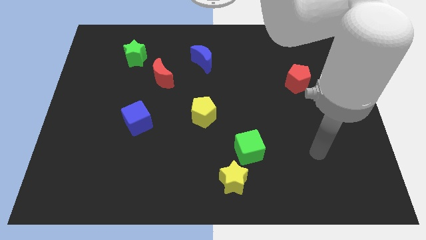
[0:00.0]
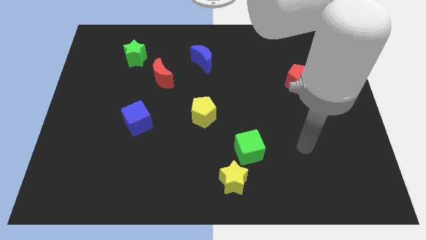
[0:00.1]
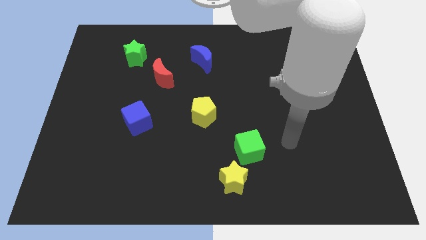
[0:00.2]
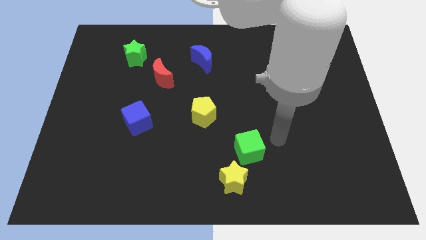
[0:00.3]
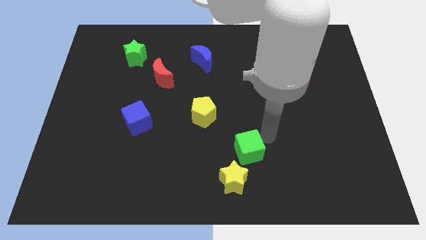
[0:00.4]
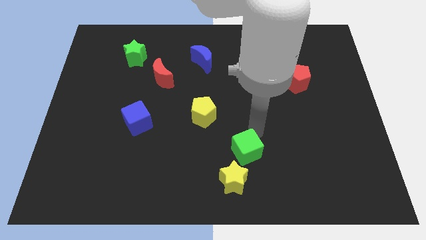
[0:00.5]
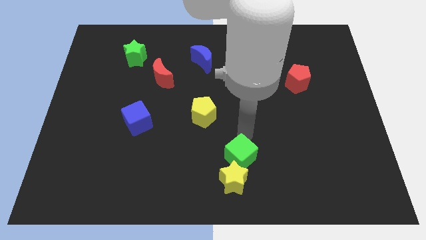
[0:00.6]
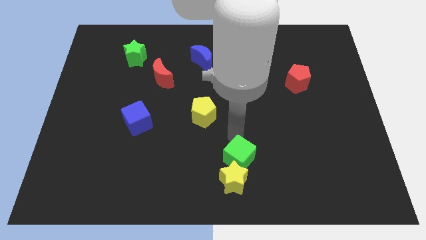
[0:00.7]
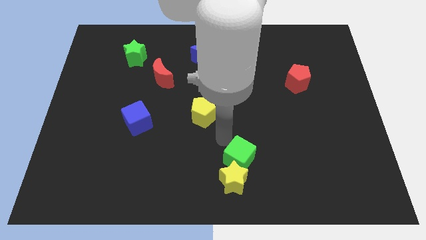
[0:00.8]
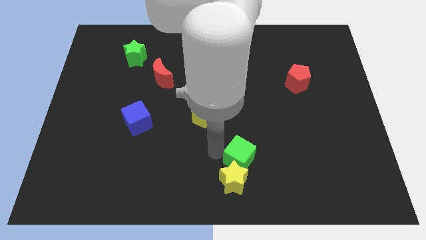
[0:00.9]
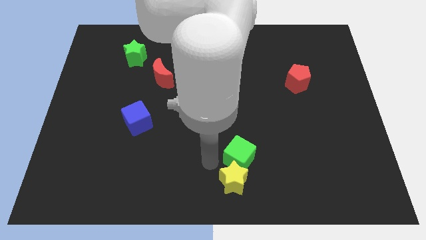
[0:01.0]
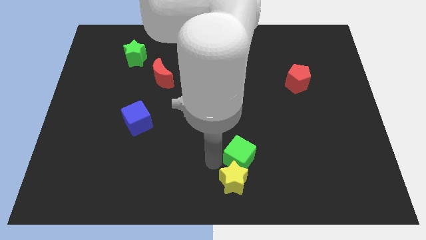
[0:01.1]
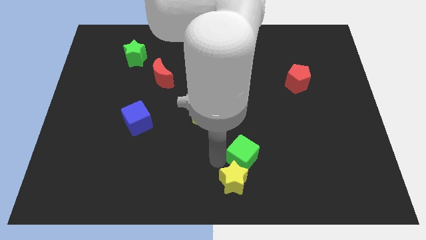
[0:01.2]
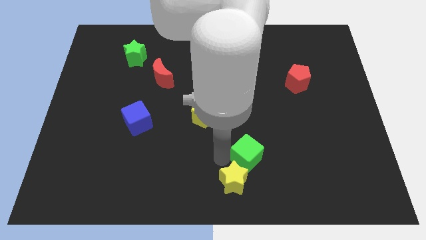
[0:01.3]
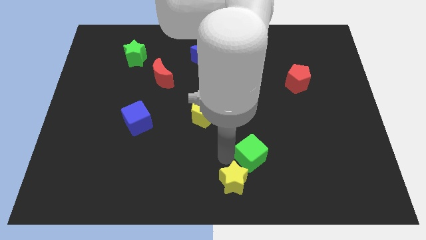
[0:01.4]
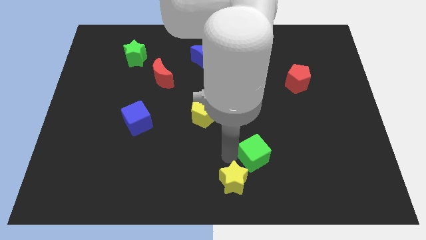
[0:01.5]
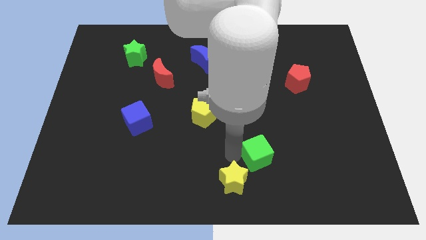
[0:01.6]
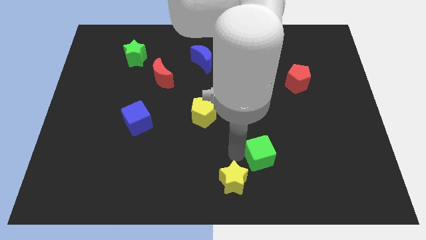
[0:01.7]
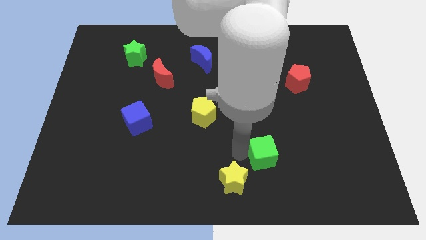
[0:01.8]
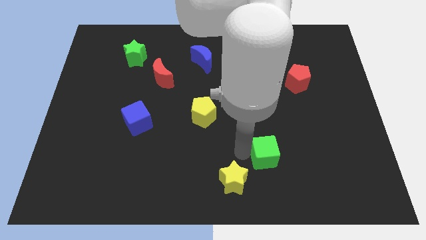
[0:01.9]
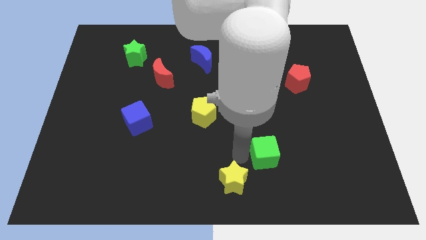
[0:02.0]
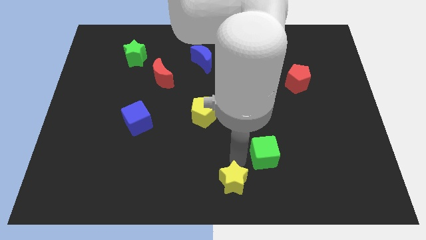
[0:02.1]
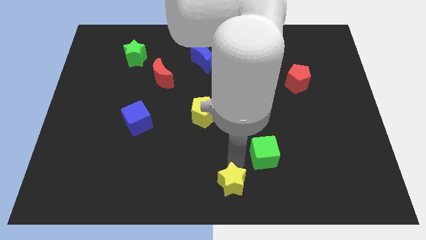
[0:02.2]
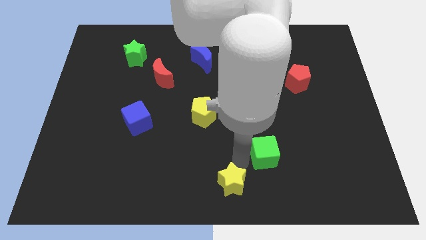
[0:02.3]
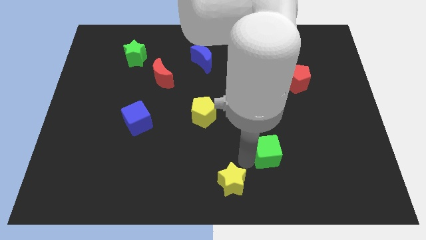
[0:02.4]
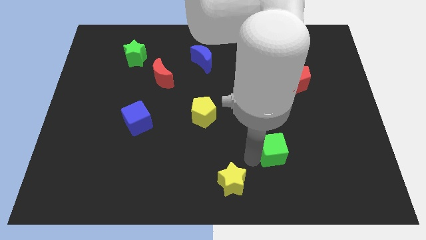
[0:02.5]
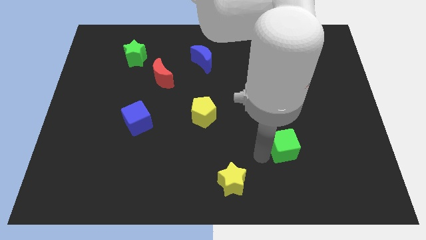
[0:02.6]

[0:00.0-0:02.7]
slide the green cube a little right

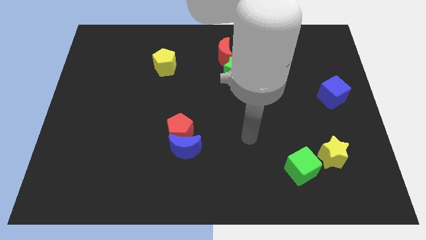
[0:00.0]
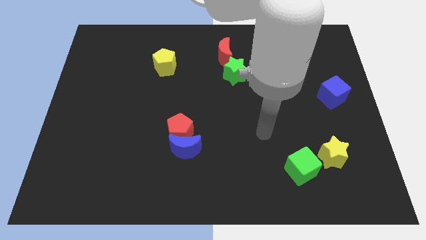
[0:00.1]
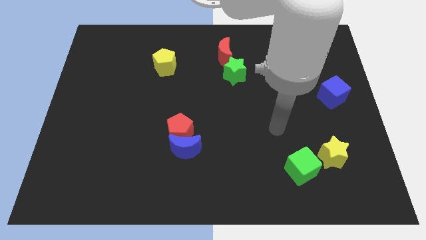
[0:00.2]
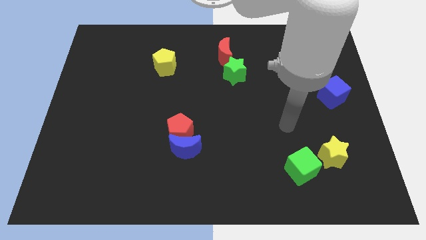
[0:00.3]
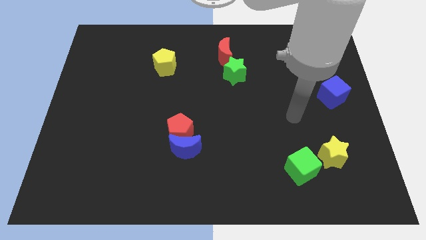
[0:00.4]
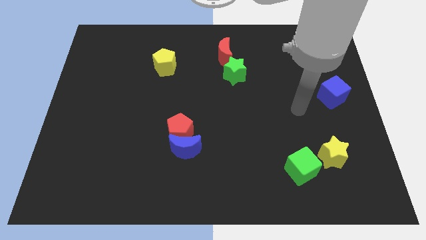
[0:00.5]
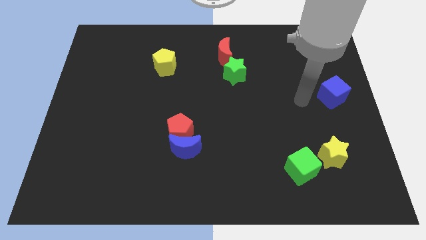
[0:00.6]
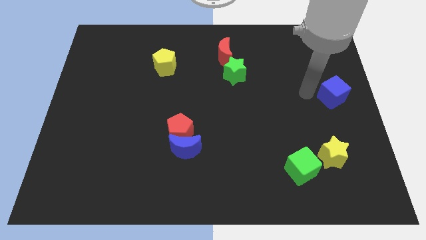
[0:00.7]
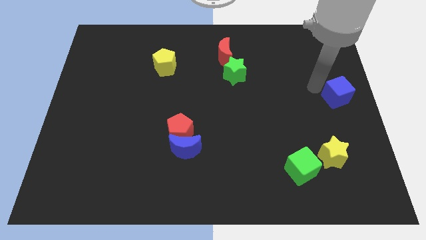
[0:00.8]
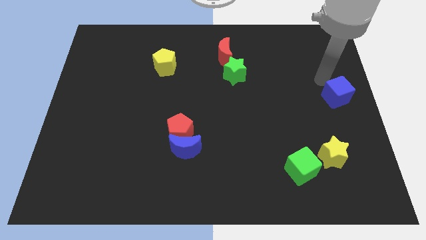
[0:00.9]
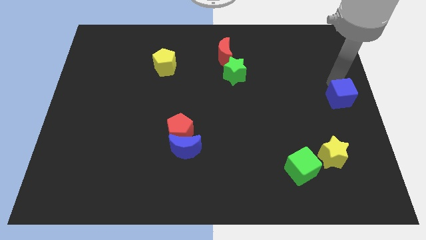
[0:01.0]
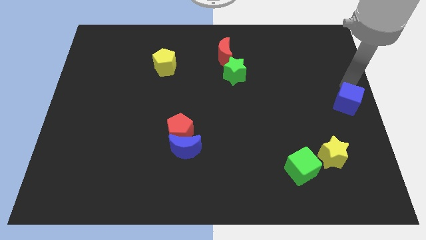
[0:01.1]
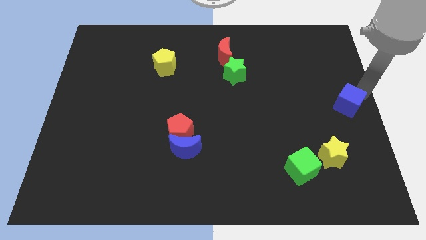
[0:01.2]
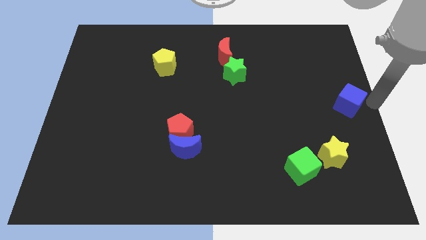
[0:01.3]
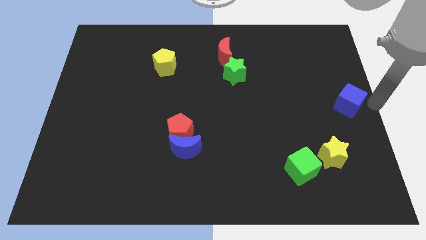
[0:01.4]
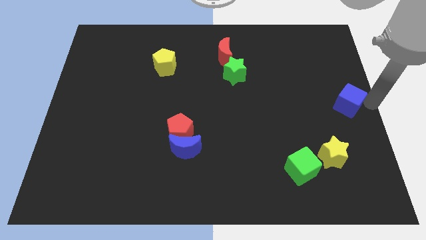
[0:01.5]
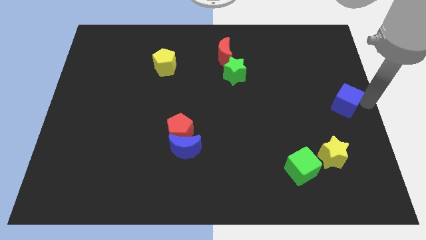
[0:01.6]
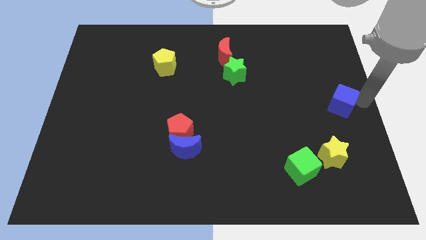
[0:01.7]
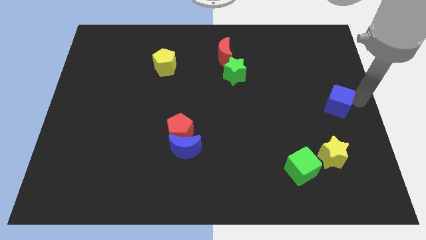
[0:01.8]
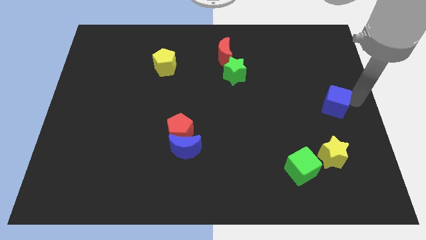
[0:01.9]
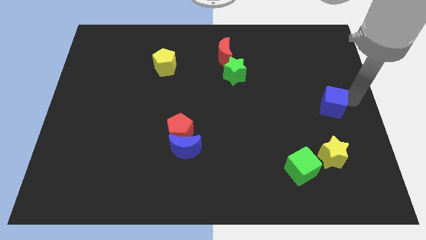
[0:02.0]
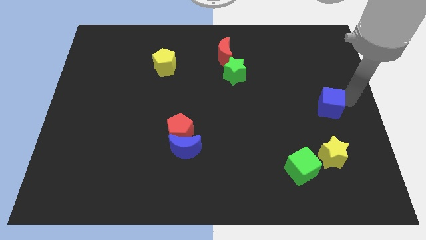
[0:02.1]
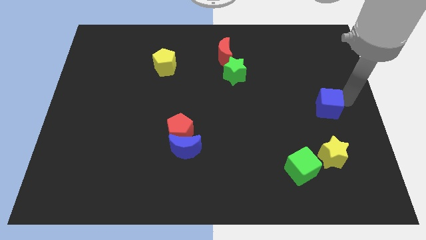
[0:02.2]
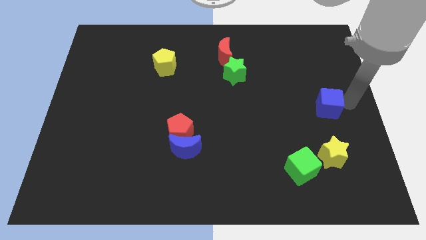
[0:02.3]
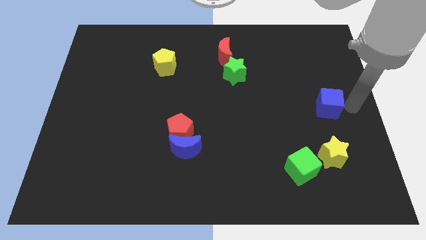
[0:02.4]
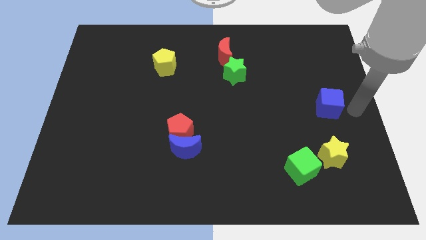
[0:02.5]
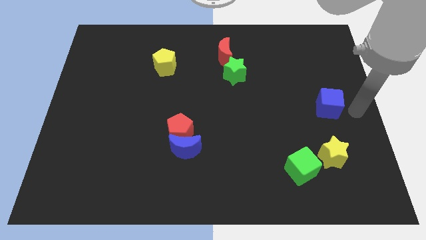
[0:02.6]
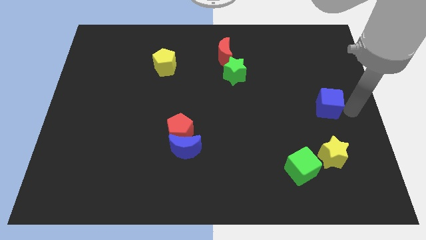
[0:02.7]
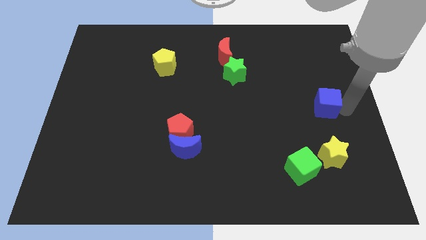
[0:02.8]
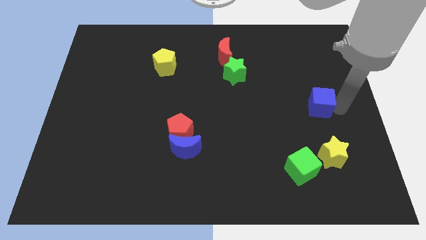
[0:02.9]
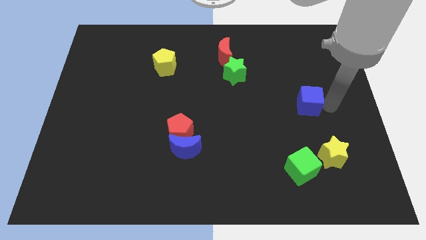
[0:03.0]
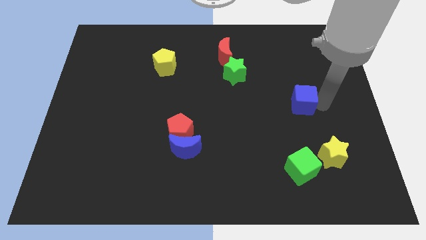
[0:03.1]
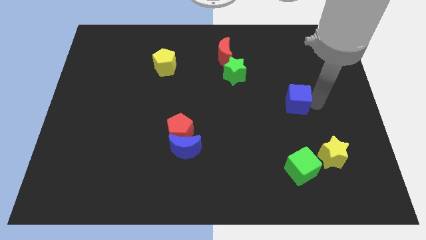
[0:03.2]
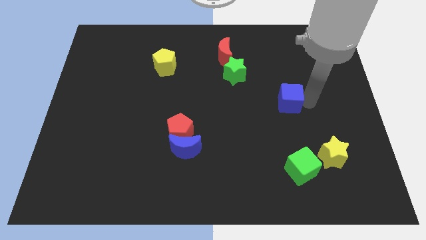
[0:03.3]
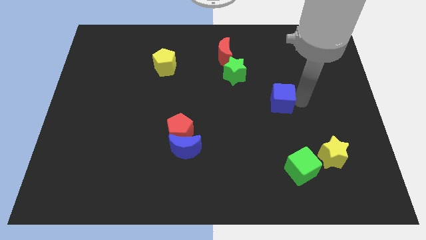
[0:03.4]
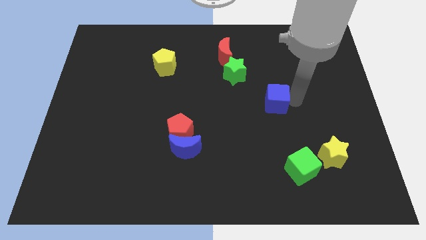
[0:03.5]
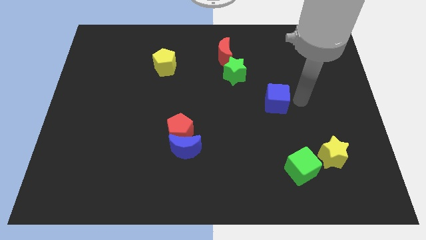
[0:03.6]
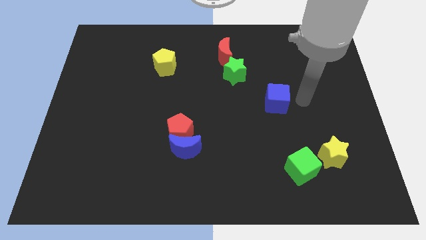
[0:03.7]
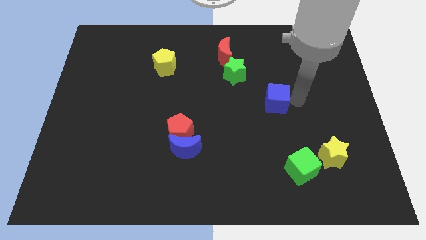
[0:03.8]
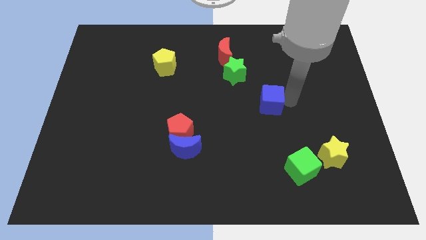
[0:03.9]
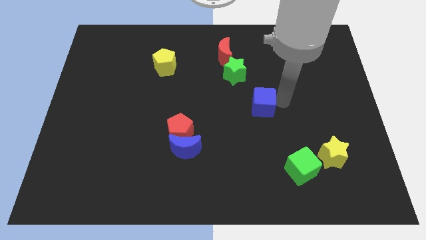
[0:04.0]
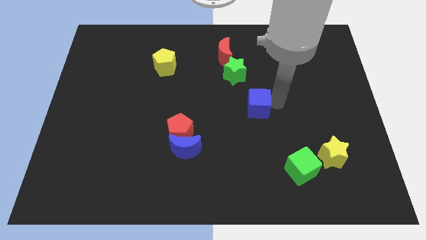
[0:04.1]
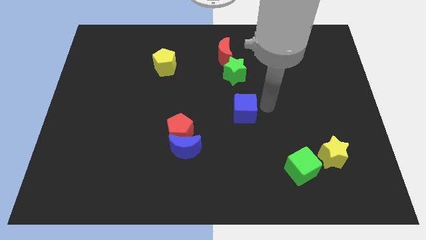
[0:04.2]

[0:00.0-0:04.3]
slide the blue cube left

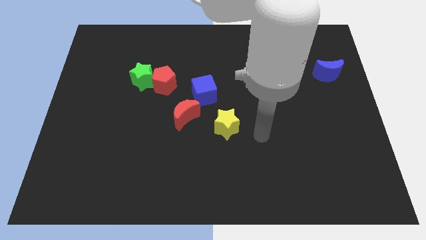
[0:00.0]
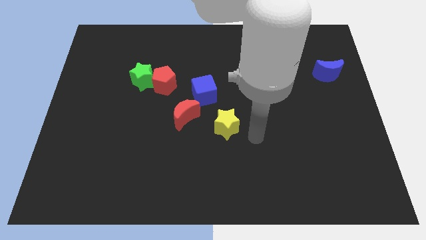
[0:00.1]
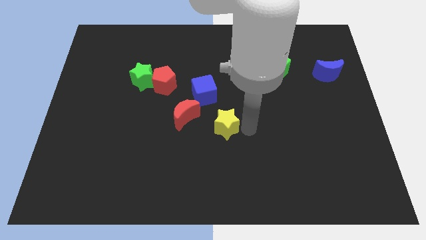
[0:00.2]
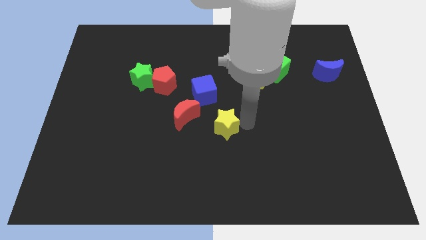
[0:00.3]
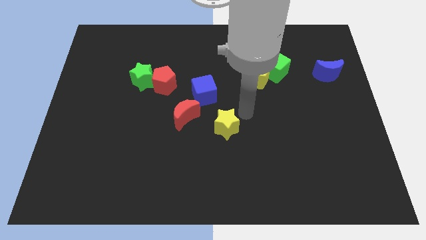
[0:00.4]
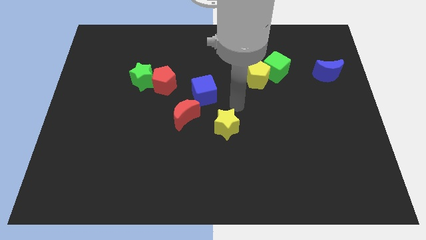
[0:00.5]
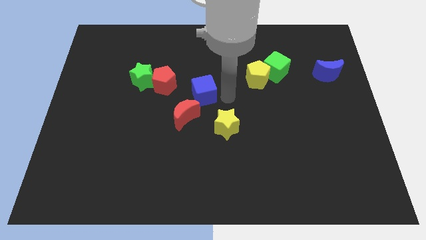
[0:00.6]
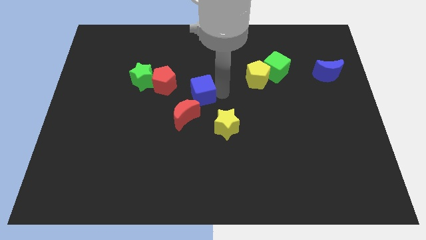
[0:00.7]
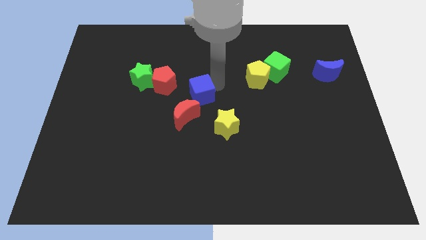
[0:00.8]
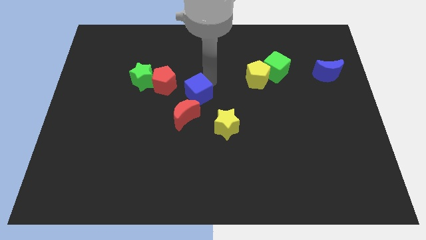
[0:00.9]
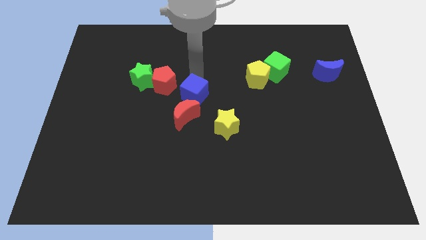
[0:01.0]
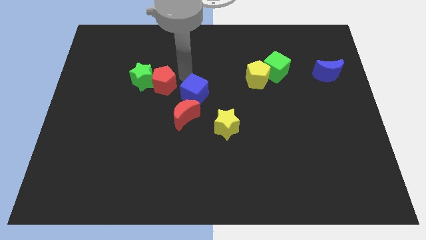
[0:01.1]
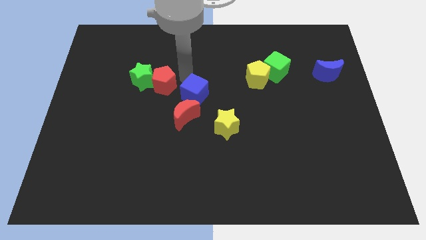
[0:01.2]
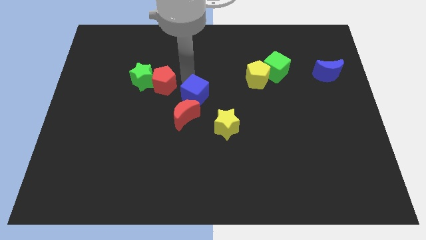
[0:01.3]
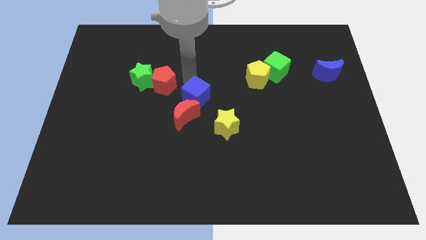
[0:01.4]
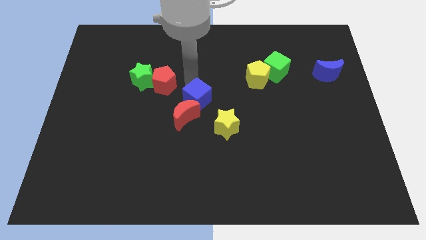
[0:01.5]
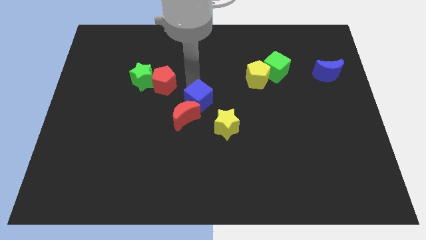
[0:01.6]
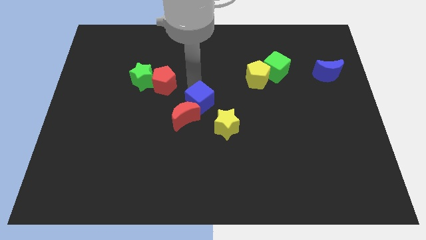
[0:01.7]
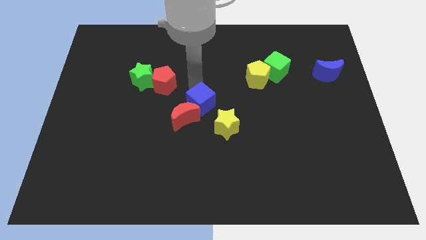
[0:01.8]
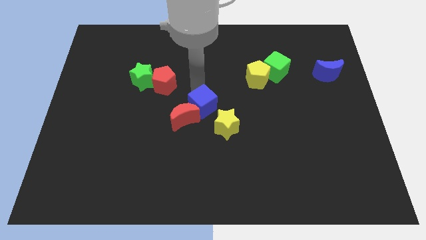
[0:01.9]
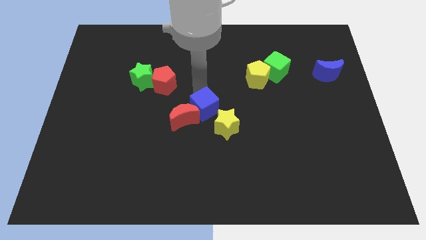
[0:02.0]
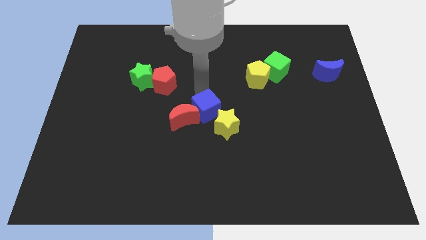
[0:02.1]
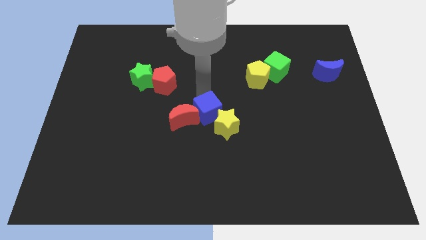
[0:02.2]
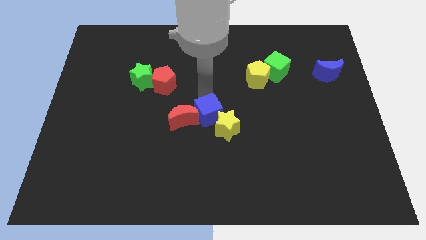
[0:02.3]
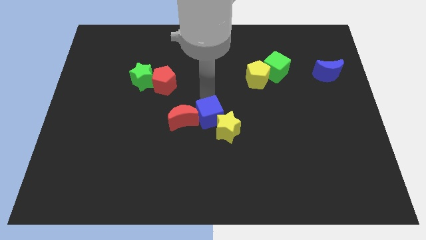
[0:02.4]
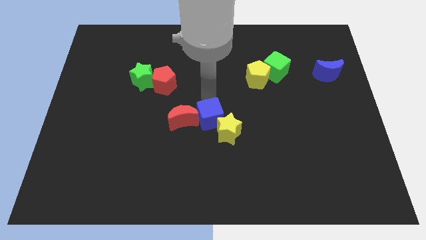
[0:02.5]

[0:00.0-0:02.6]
move the blue cube down a little bit
